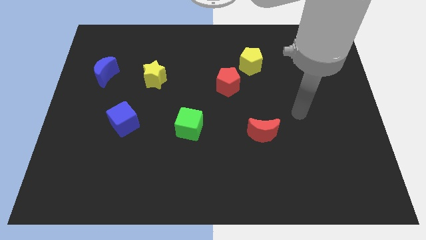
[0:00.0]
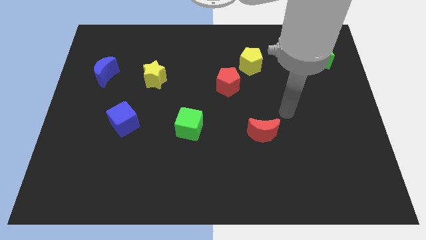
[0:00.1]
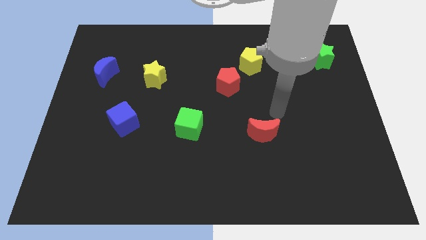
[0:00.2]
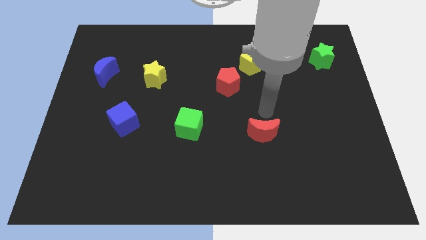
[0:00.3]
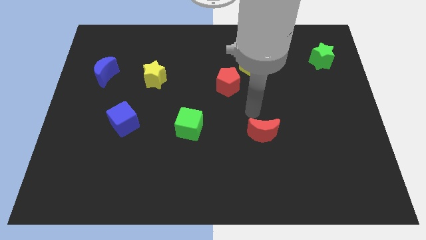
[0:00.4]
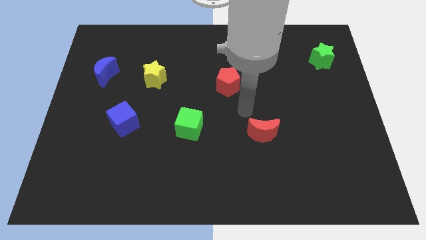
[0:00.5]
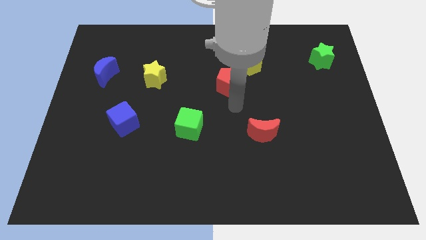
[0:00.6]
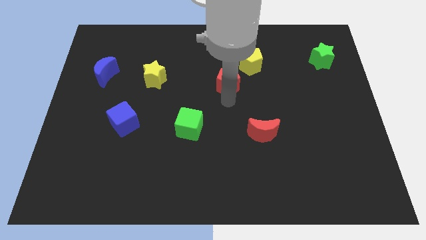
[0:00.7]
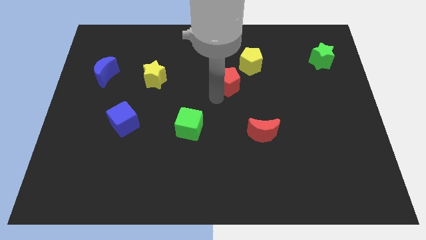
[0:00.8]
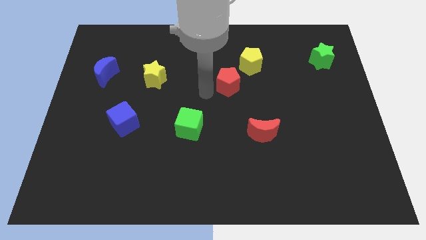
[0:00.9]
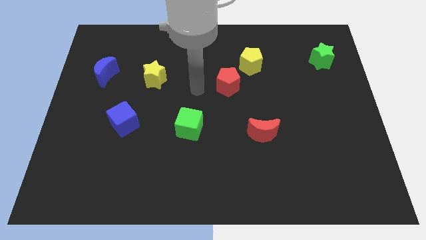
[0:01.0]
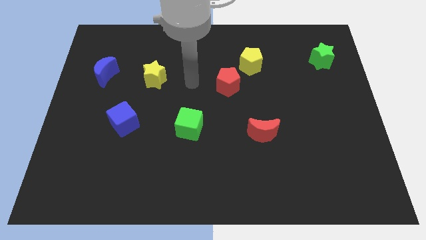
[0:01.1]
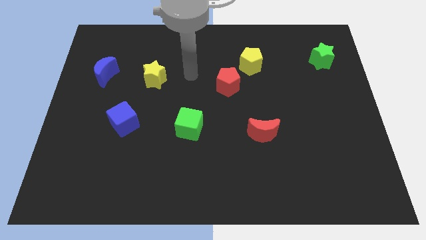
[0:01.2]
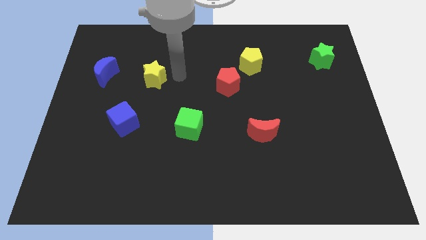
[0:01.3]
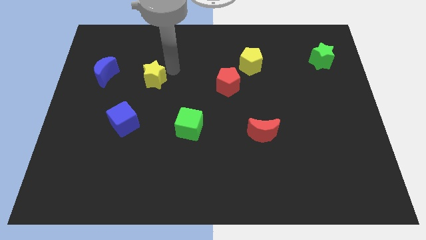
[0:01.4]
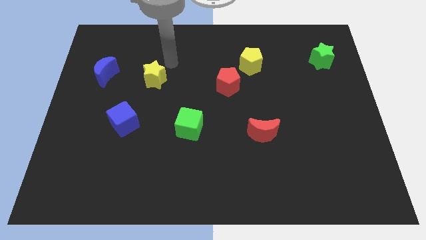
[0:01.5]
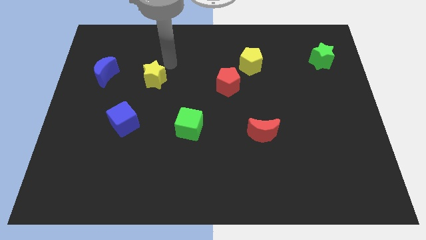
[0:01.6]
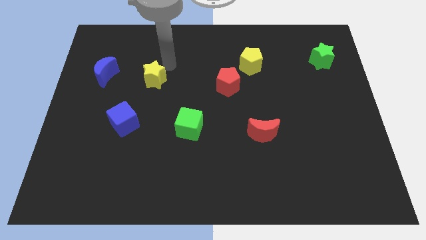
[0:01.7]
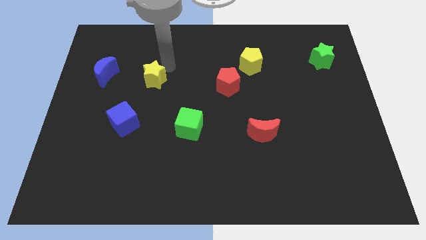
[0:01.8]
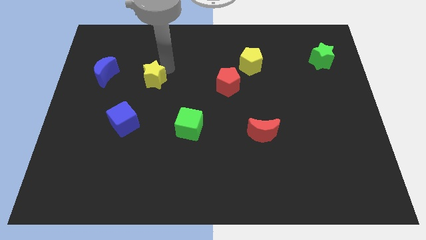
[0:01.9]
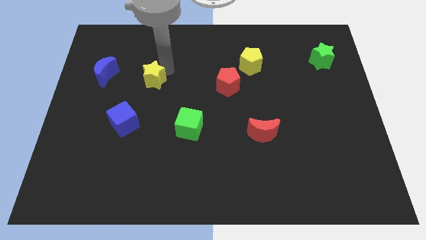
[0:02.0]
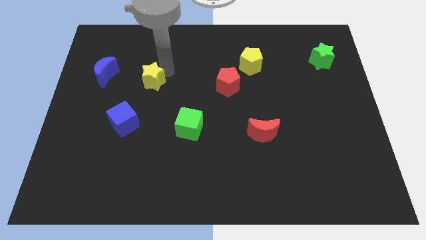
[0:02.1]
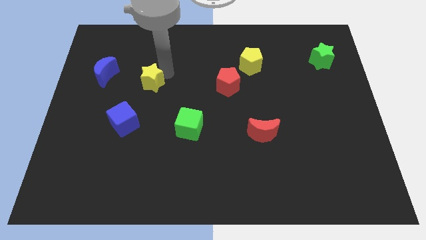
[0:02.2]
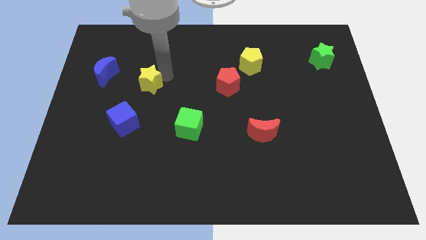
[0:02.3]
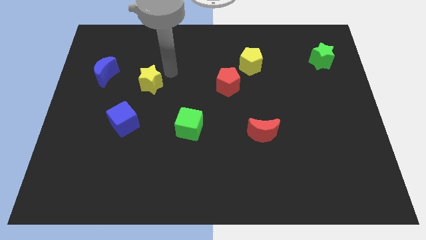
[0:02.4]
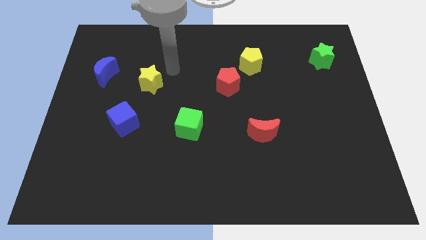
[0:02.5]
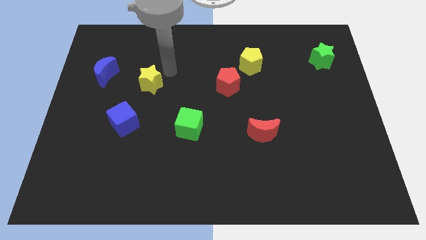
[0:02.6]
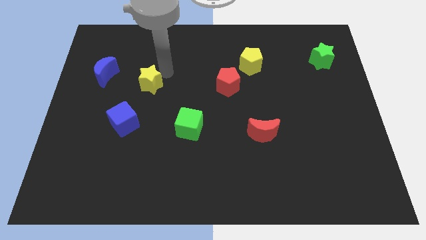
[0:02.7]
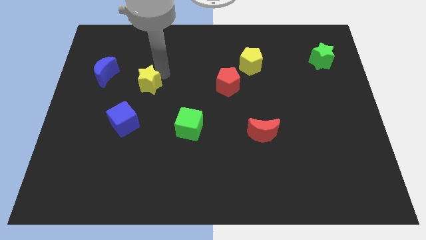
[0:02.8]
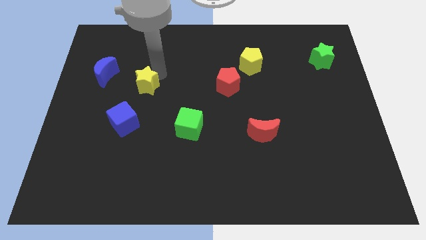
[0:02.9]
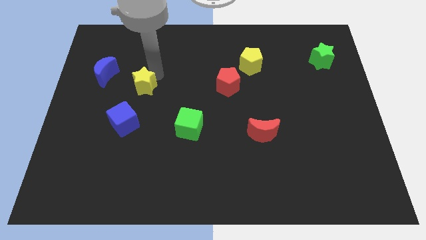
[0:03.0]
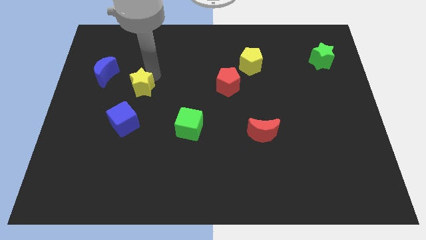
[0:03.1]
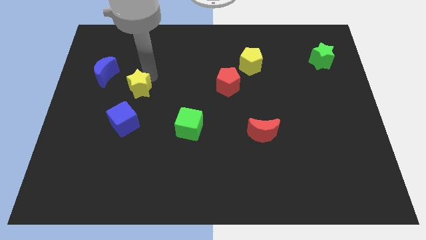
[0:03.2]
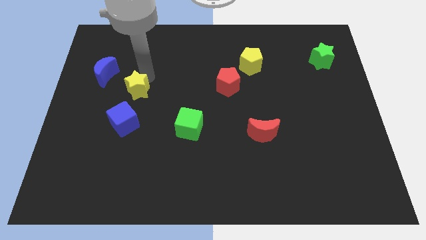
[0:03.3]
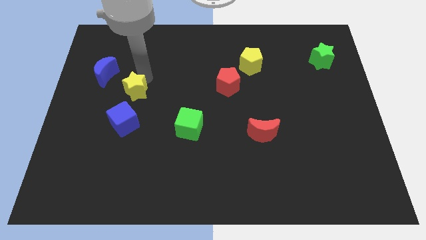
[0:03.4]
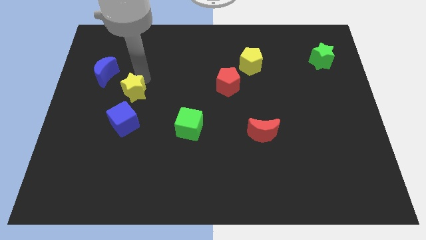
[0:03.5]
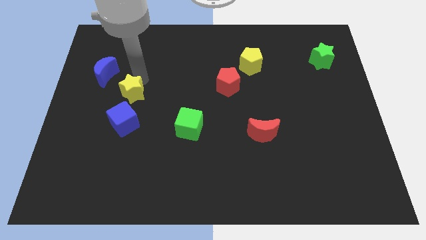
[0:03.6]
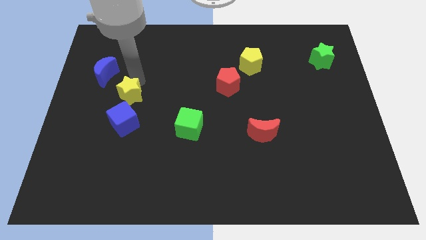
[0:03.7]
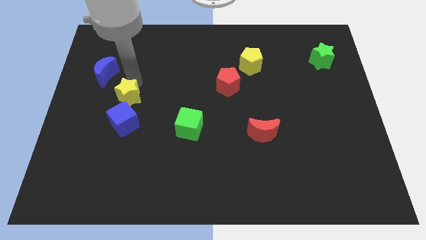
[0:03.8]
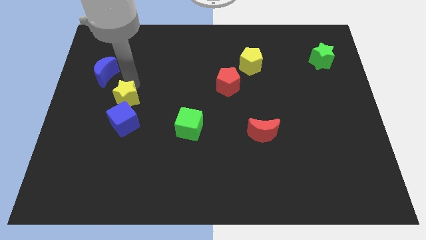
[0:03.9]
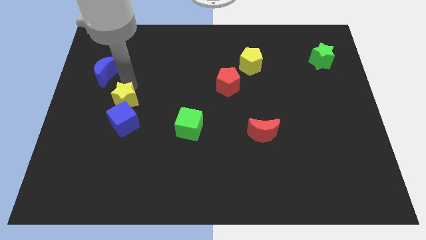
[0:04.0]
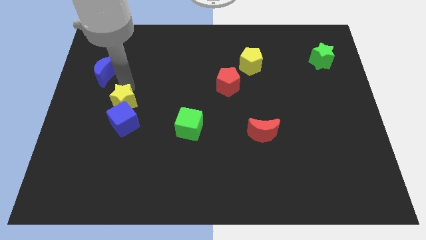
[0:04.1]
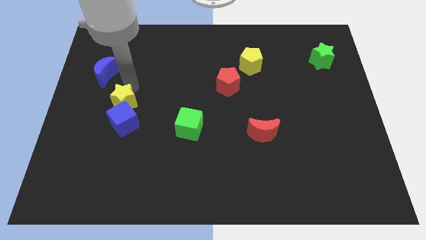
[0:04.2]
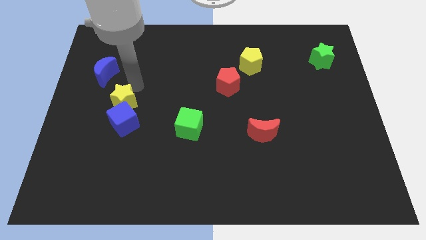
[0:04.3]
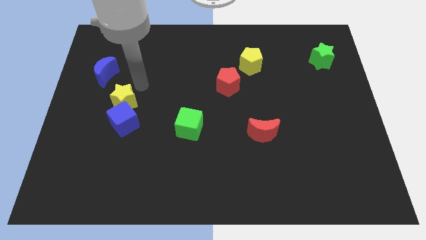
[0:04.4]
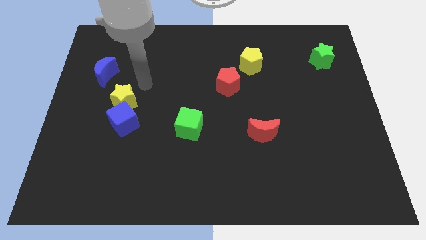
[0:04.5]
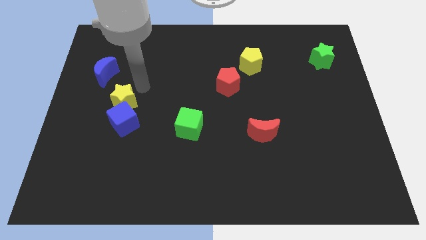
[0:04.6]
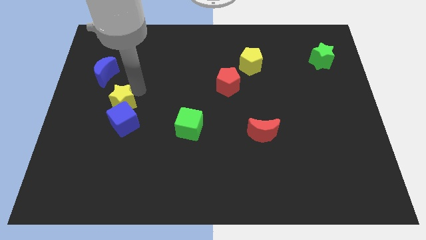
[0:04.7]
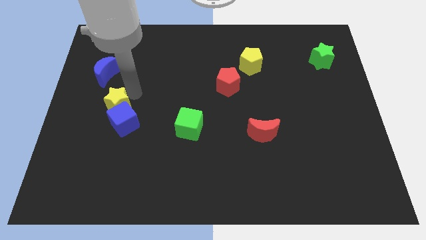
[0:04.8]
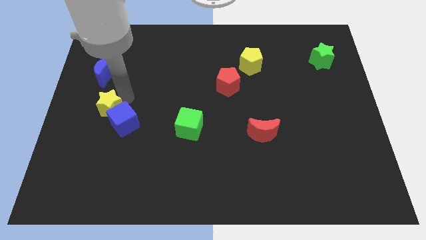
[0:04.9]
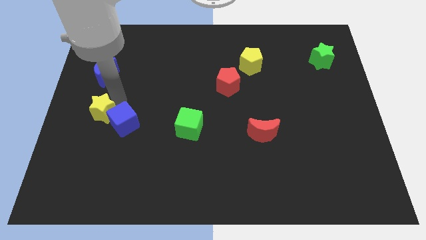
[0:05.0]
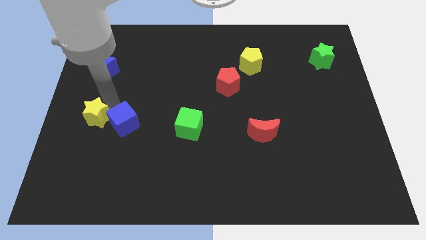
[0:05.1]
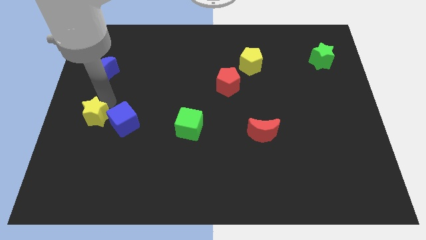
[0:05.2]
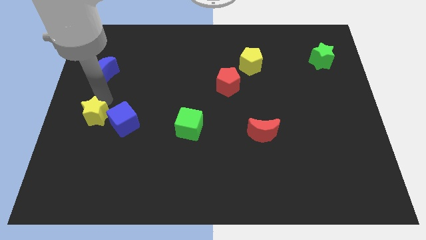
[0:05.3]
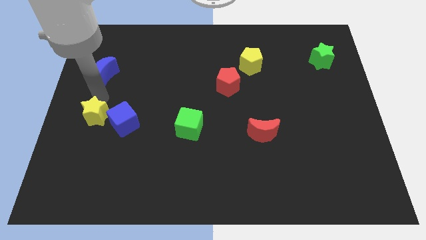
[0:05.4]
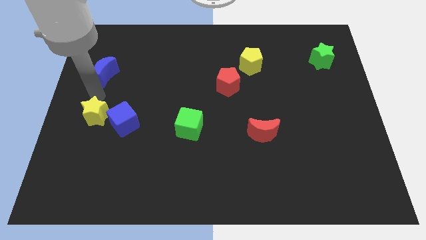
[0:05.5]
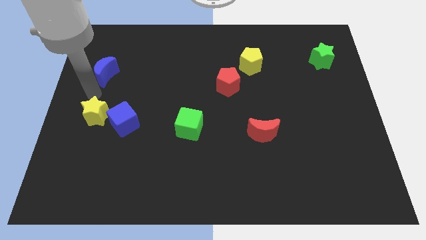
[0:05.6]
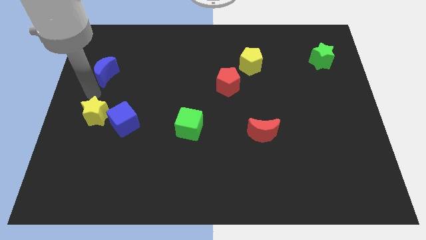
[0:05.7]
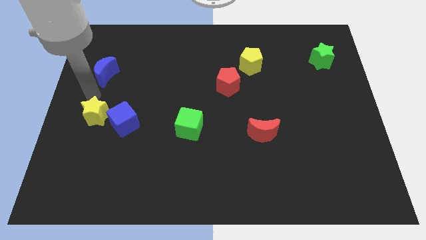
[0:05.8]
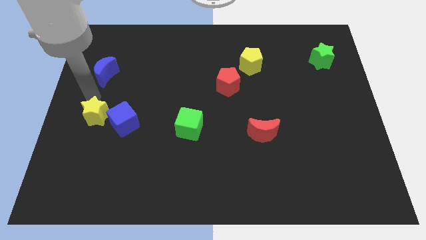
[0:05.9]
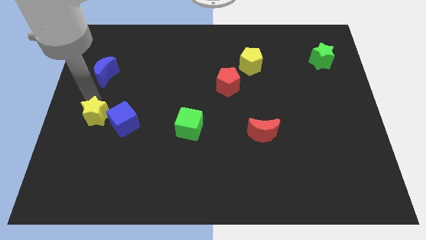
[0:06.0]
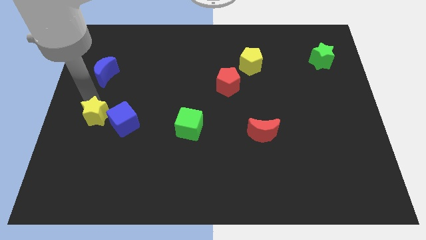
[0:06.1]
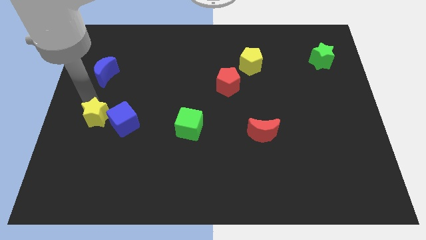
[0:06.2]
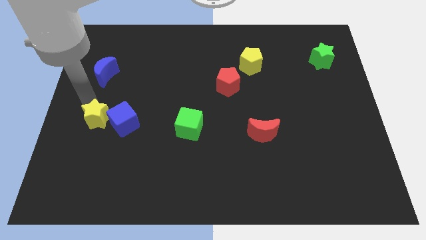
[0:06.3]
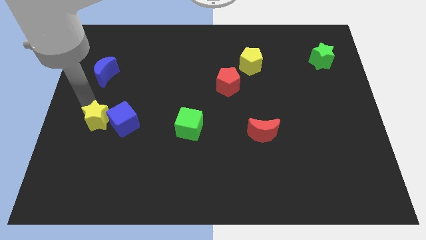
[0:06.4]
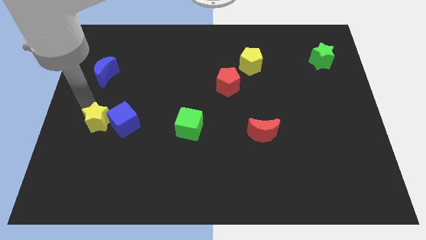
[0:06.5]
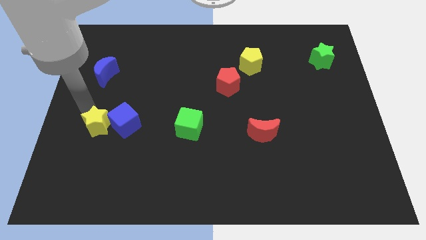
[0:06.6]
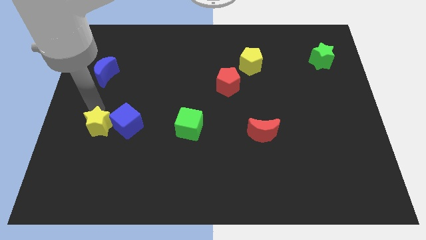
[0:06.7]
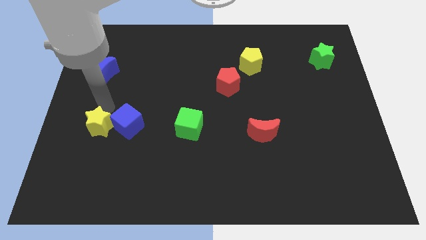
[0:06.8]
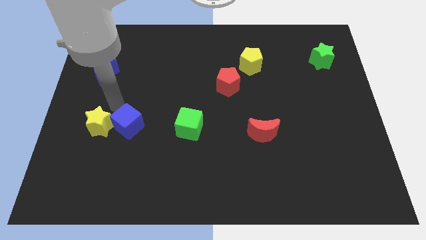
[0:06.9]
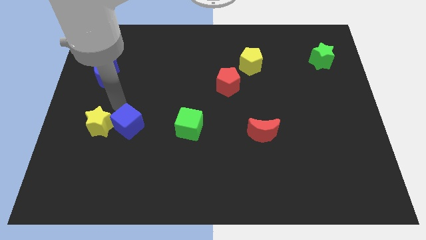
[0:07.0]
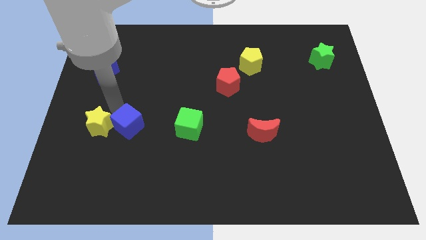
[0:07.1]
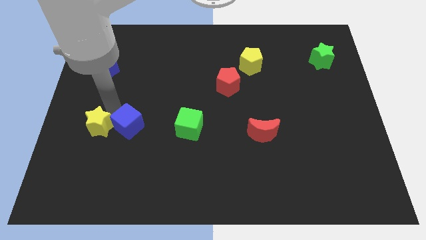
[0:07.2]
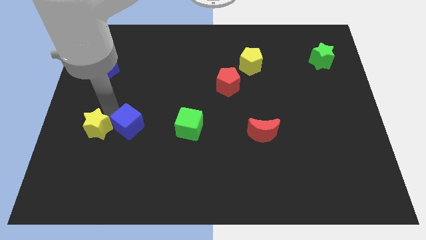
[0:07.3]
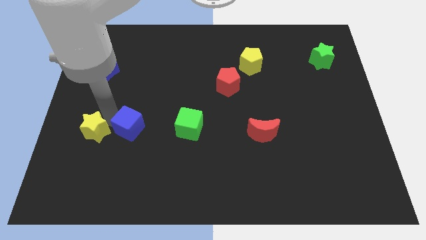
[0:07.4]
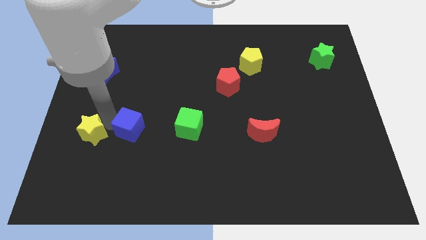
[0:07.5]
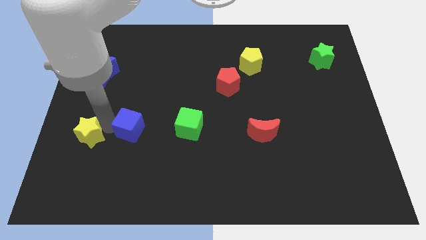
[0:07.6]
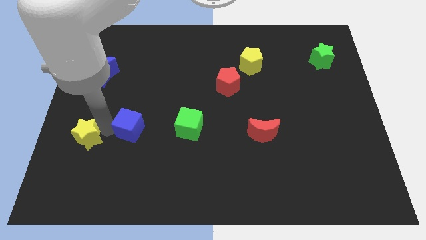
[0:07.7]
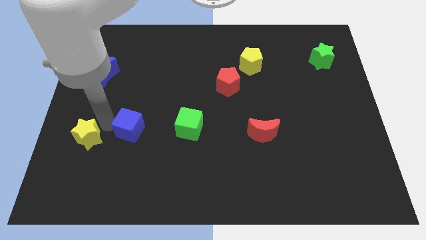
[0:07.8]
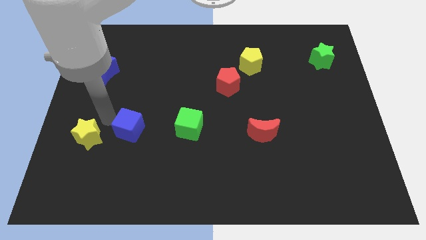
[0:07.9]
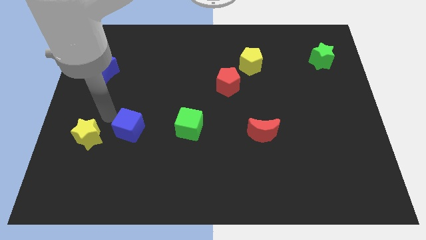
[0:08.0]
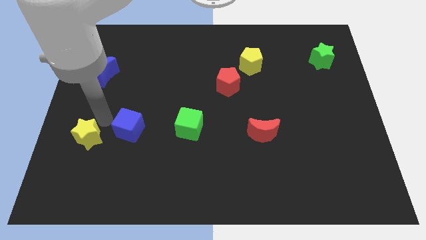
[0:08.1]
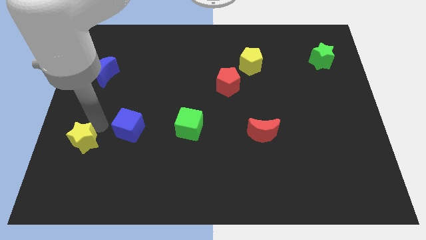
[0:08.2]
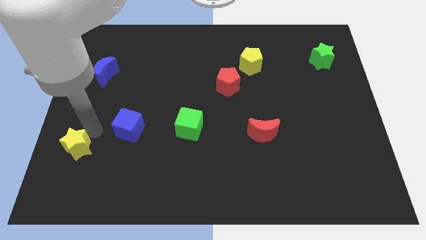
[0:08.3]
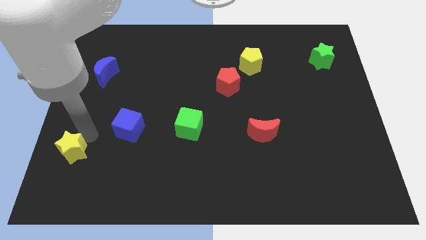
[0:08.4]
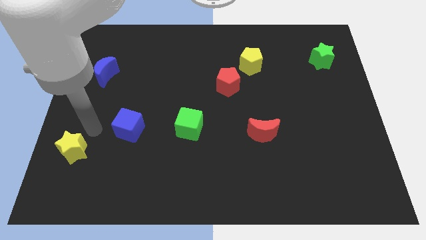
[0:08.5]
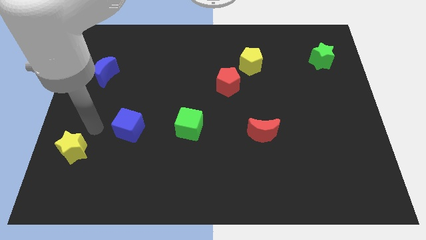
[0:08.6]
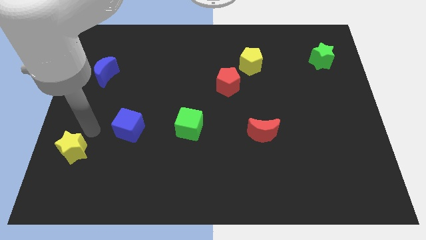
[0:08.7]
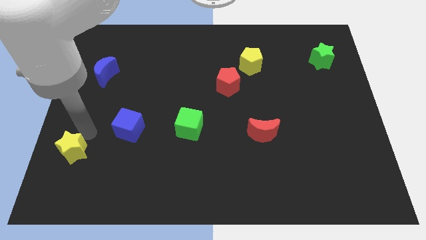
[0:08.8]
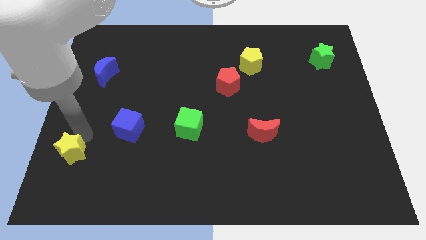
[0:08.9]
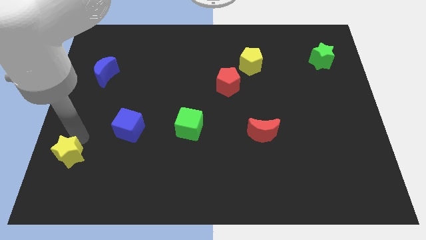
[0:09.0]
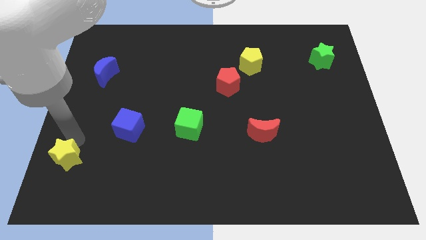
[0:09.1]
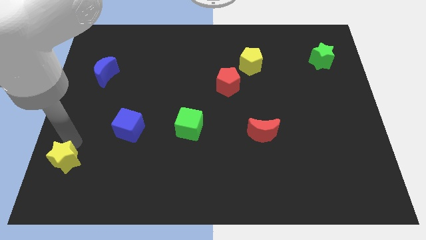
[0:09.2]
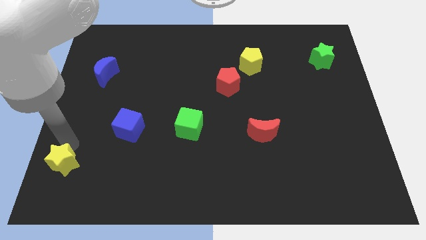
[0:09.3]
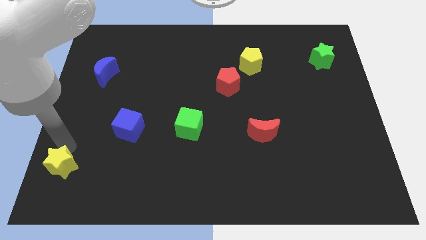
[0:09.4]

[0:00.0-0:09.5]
slide the yellow star to the bottom left of the board
